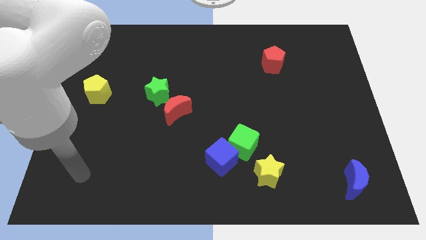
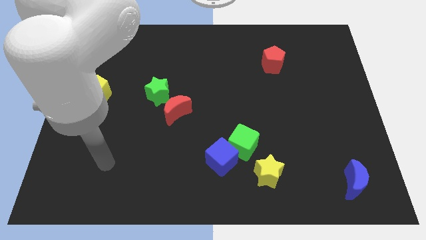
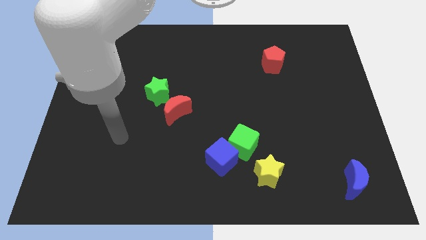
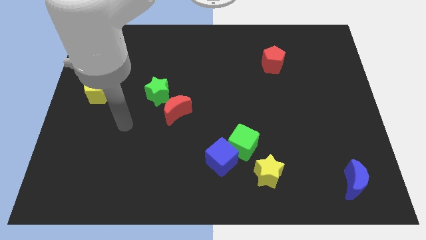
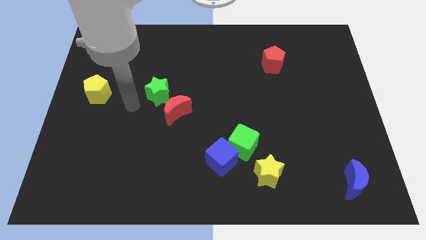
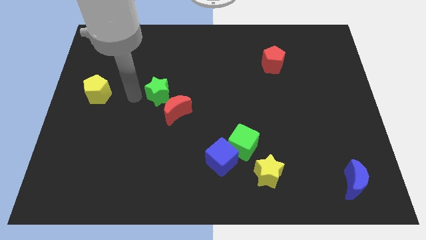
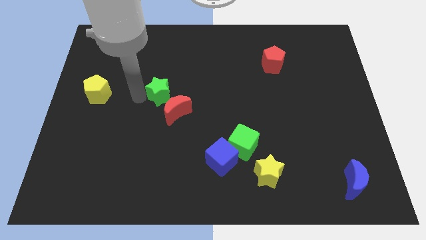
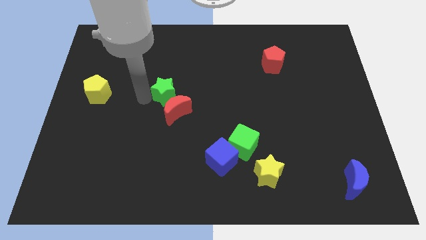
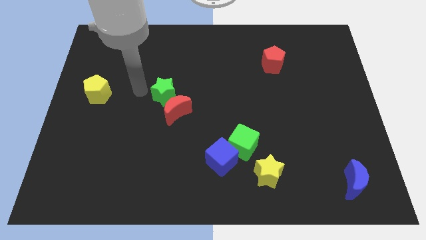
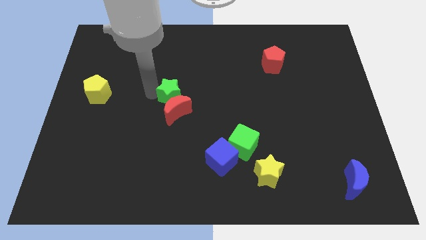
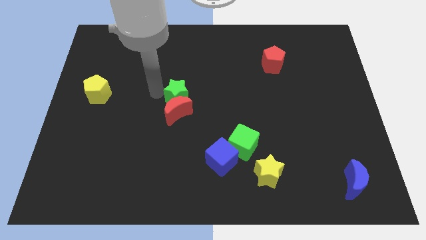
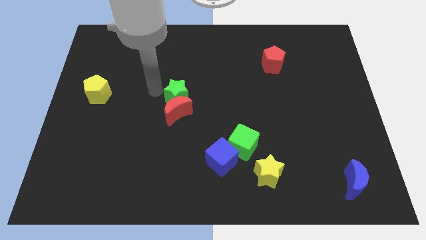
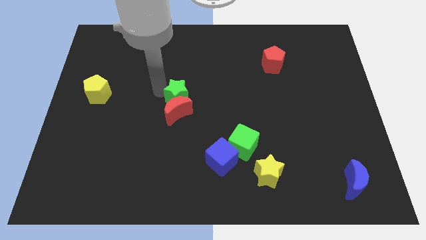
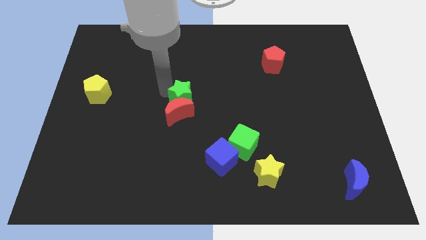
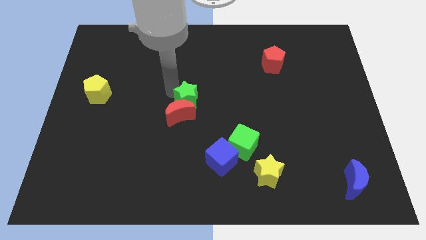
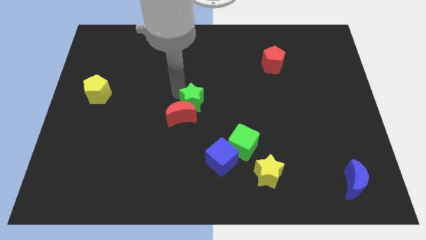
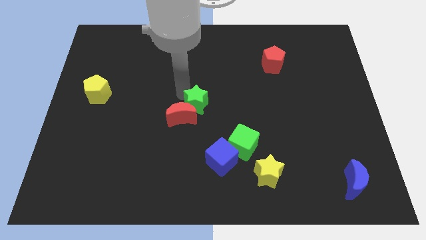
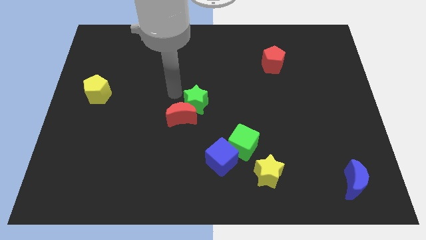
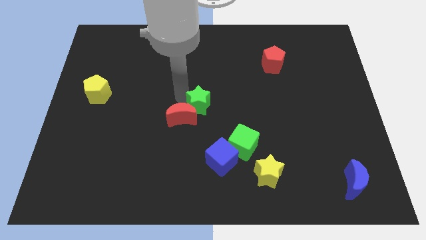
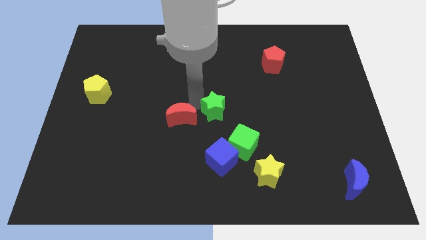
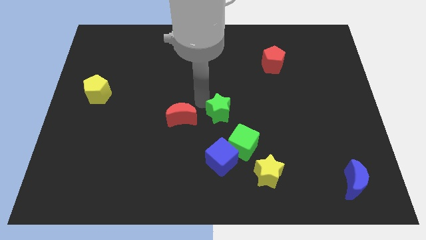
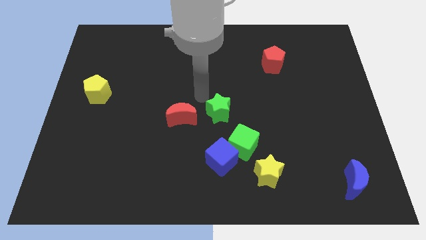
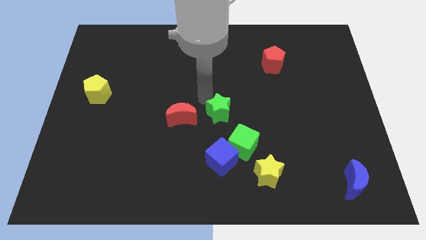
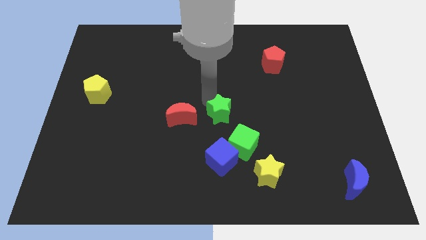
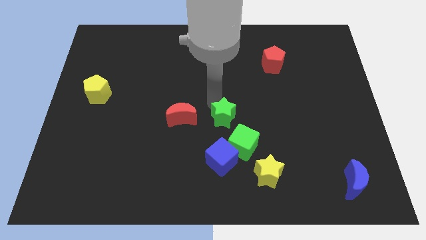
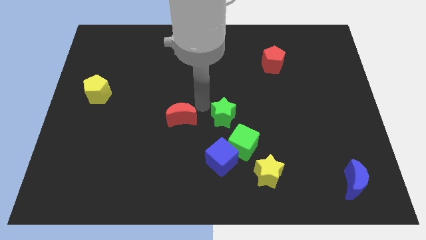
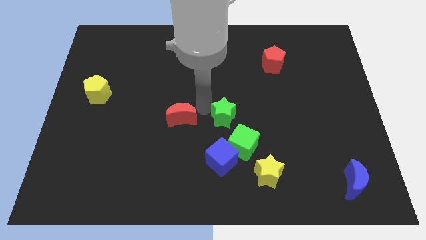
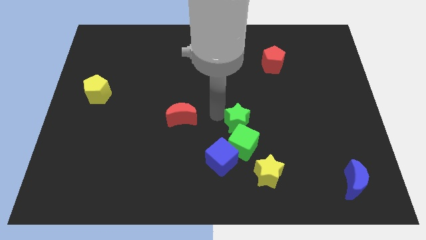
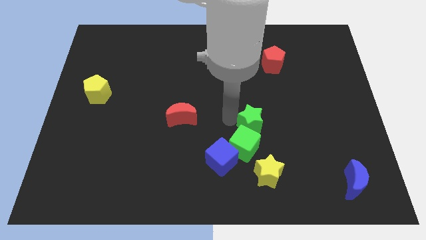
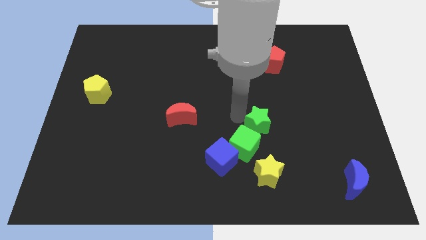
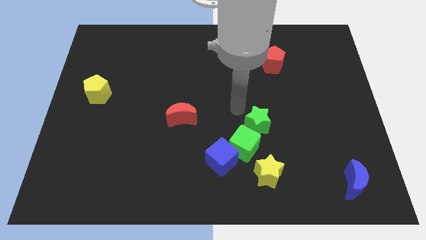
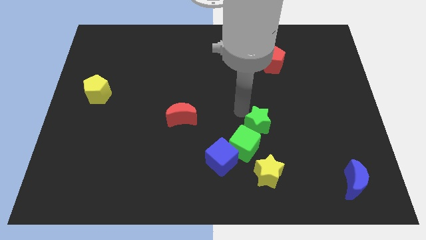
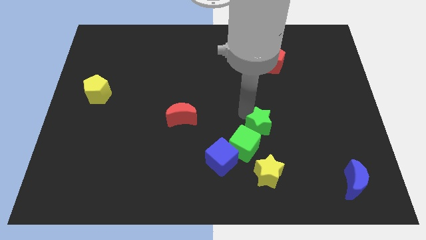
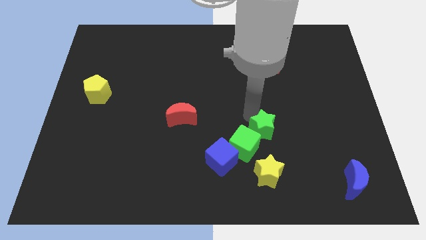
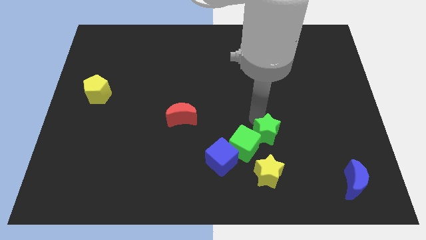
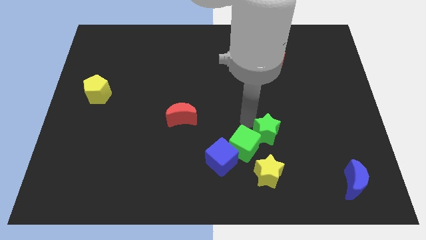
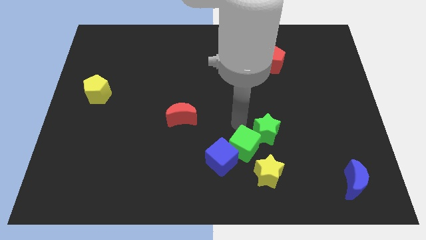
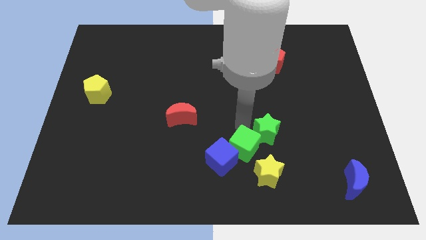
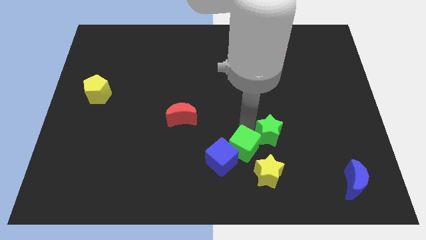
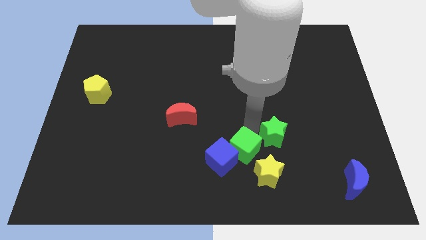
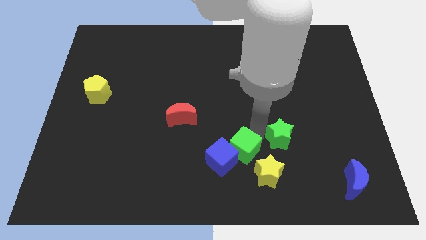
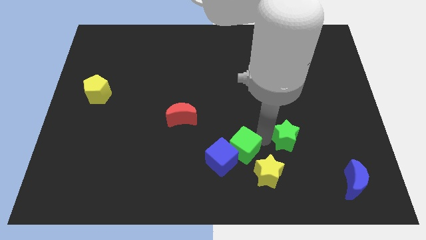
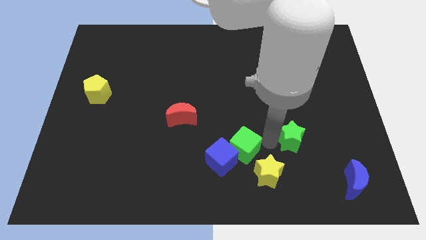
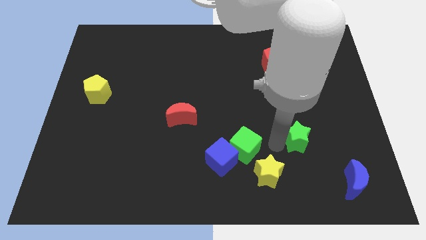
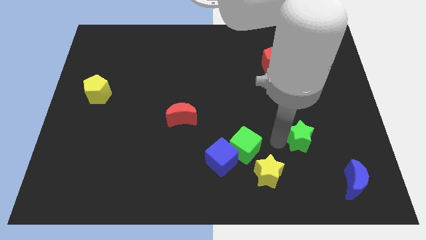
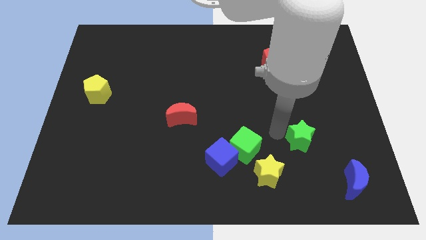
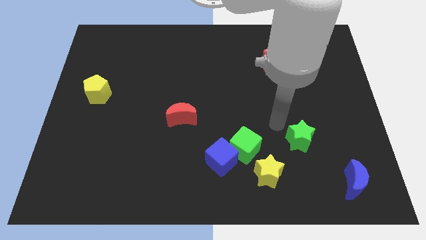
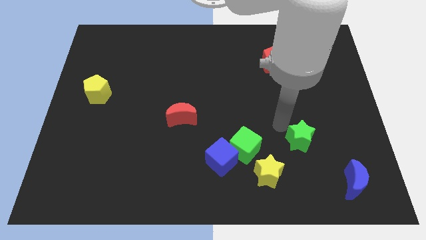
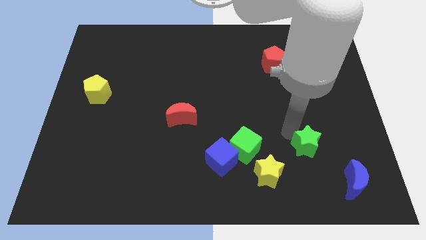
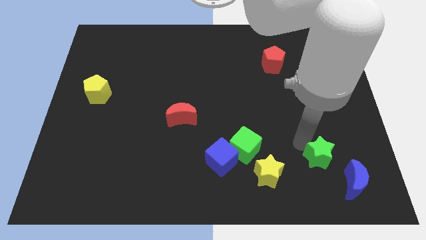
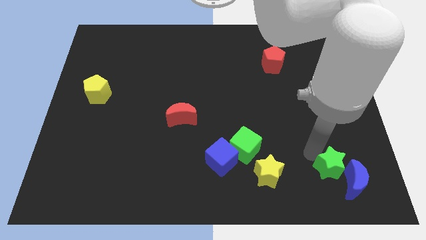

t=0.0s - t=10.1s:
push the green star close to the blue moon

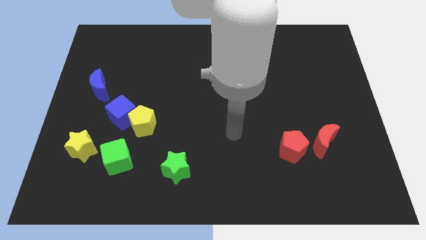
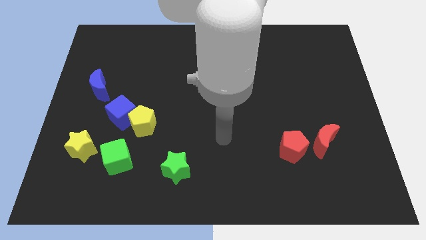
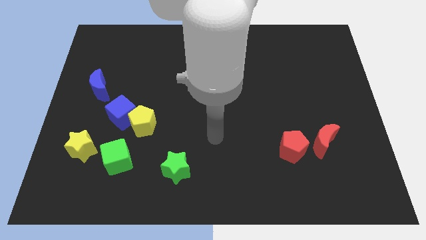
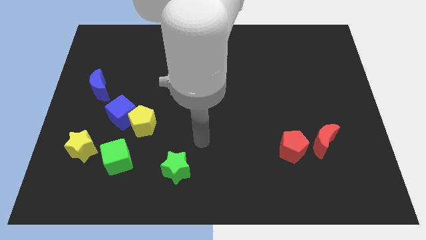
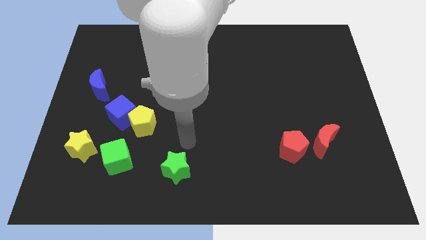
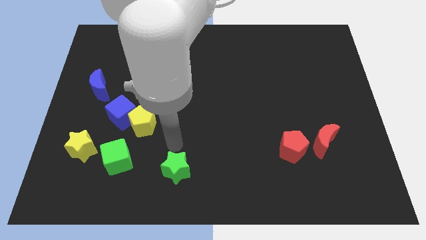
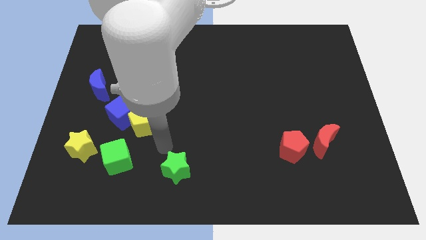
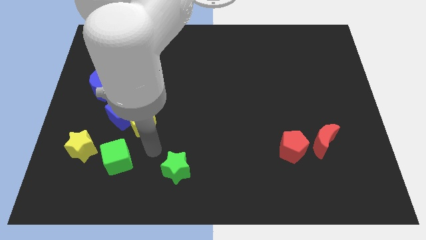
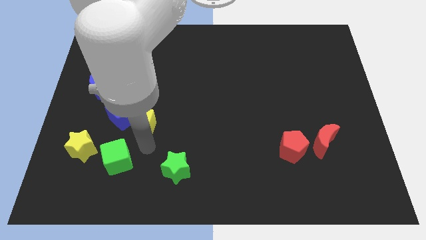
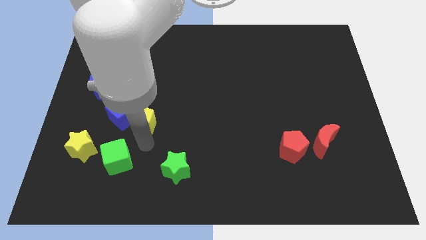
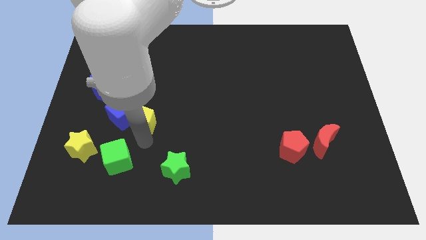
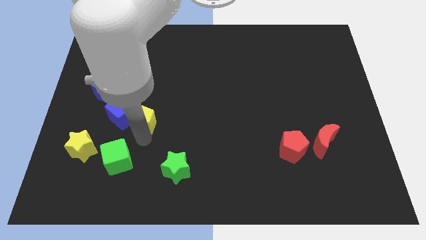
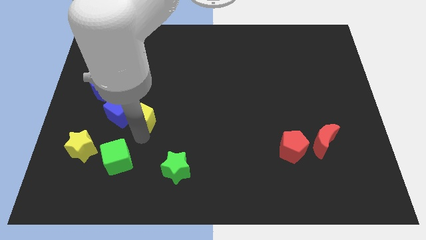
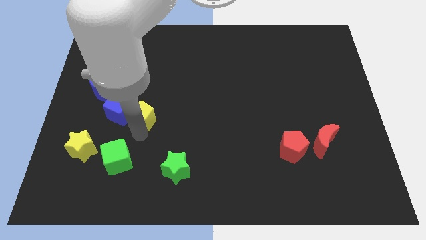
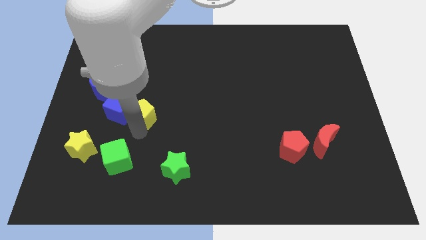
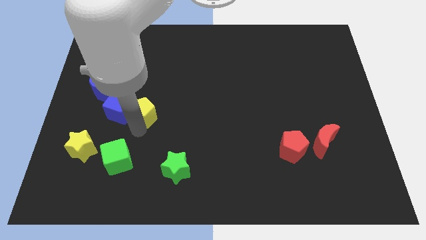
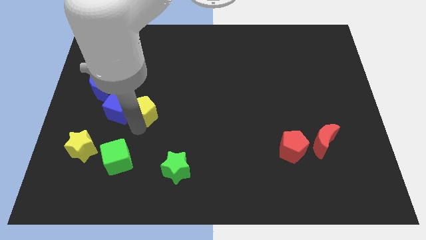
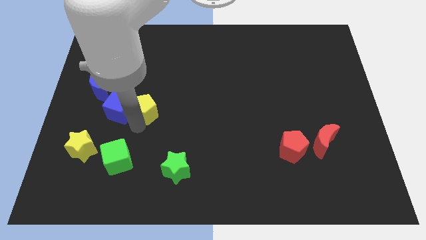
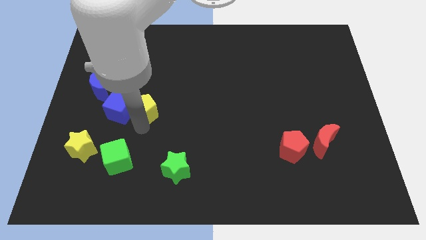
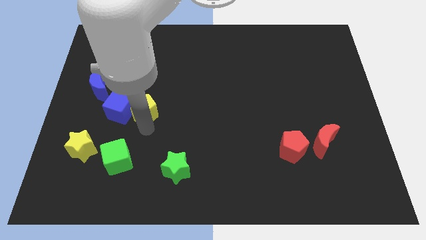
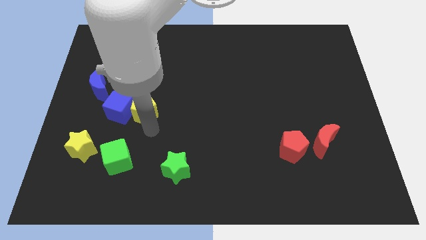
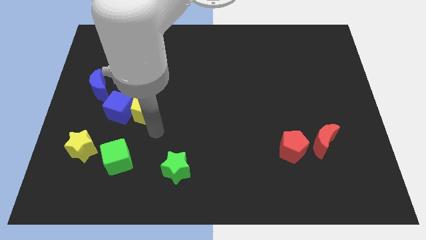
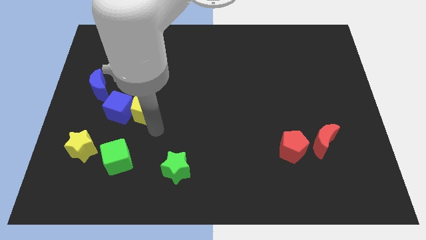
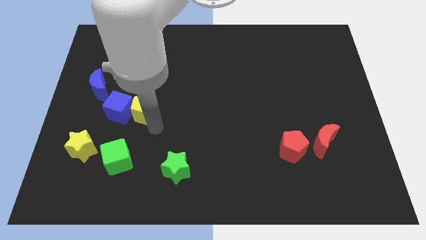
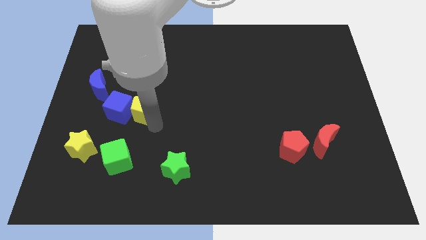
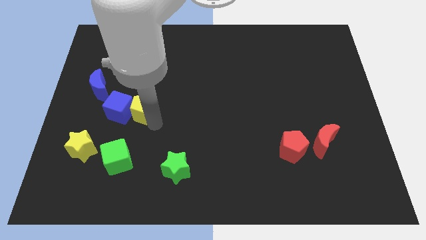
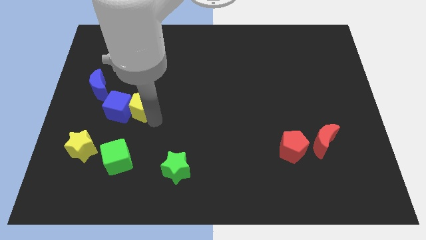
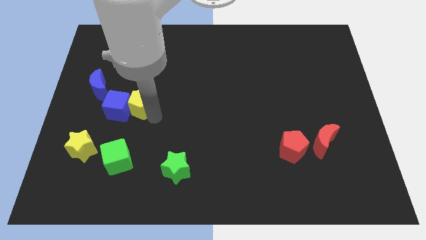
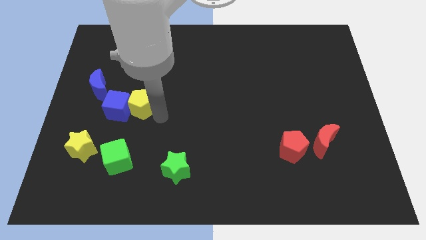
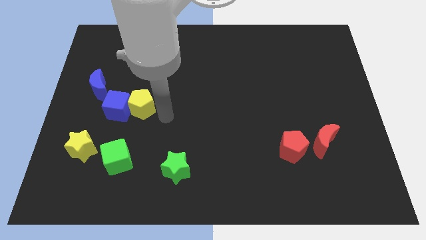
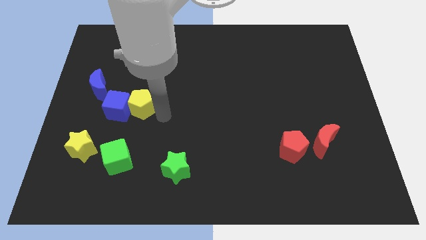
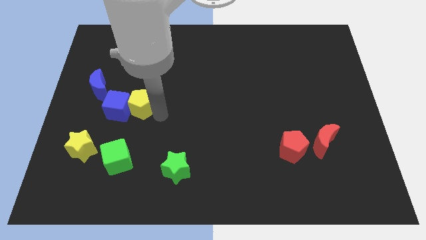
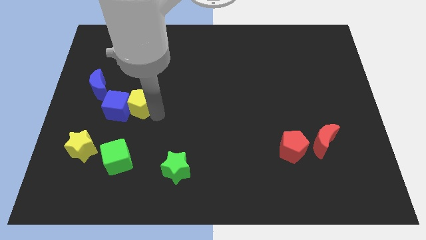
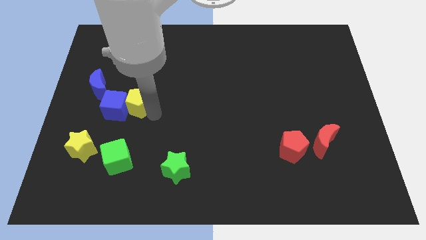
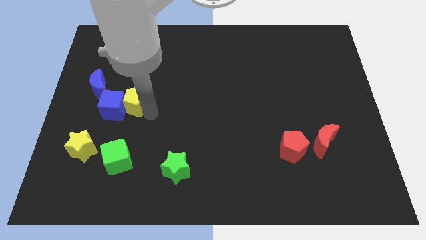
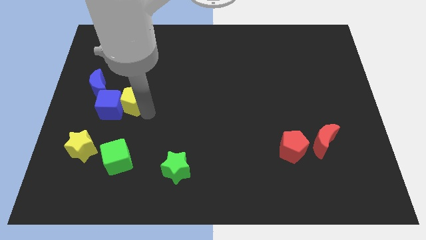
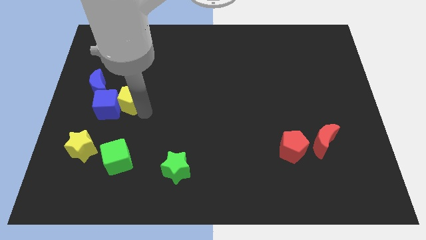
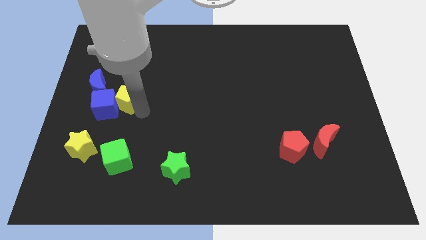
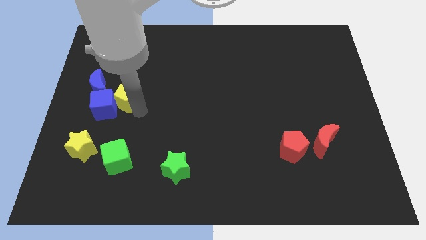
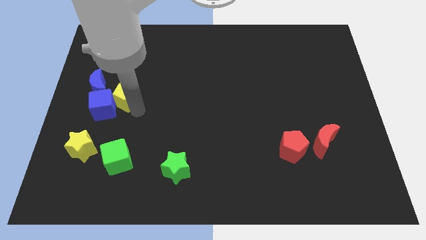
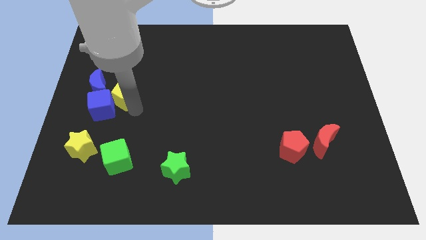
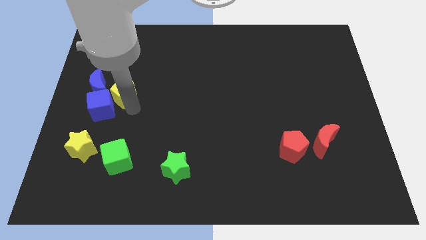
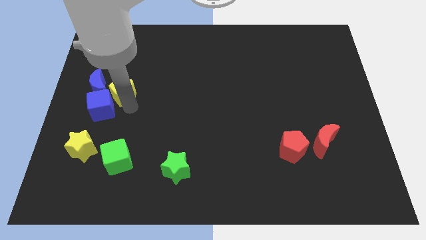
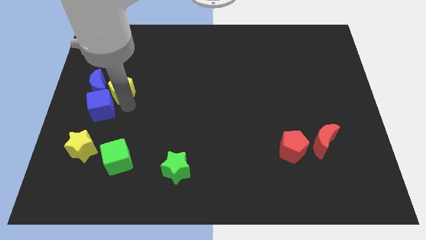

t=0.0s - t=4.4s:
put the yellow pentagon next to the blue moon
